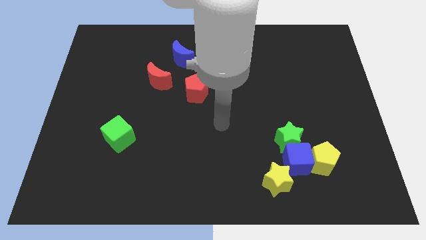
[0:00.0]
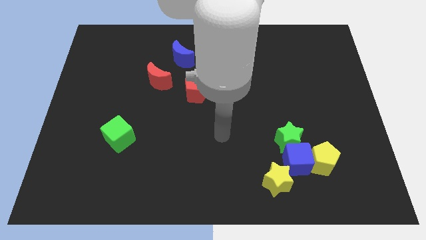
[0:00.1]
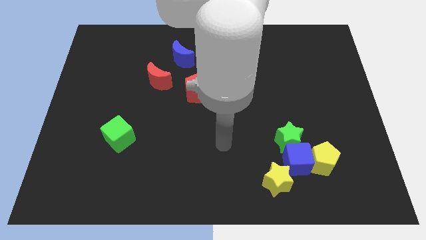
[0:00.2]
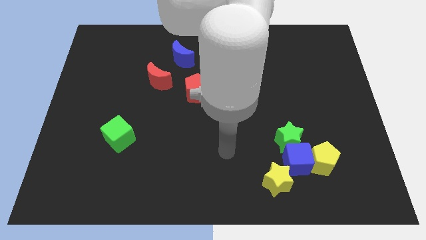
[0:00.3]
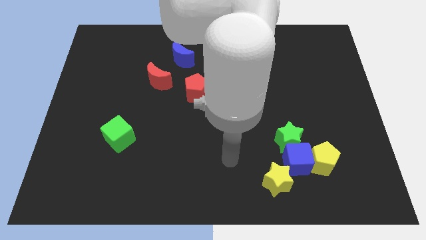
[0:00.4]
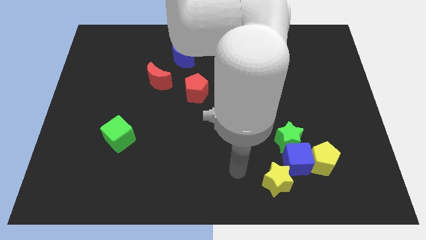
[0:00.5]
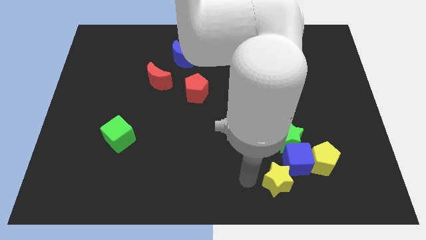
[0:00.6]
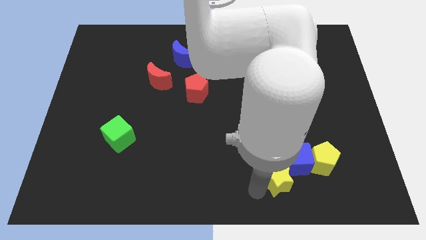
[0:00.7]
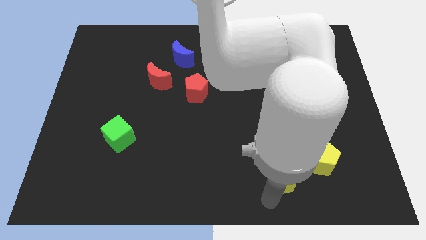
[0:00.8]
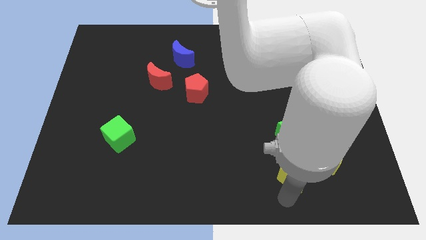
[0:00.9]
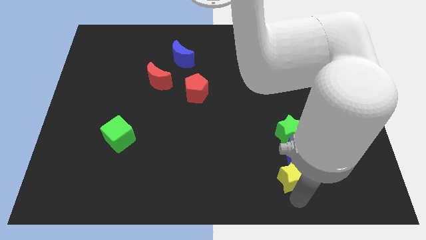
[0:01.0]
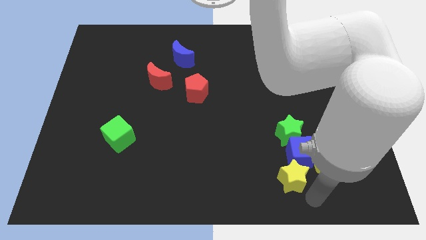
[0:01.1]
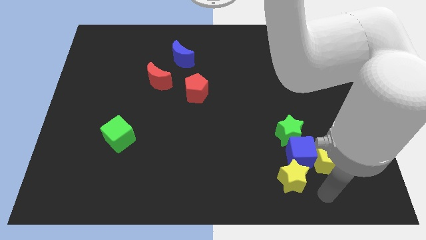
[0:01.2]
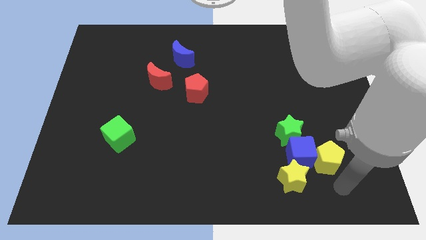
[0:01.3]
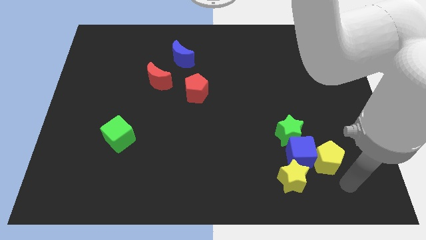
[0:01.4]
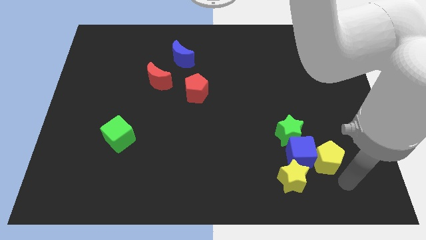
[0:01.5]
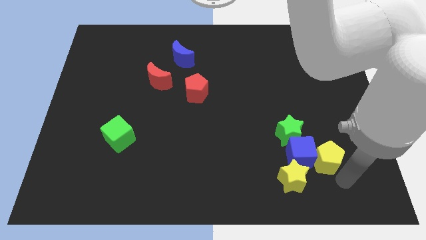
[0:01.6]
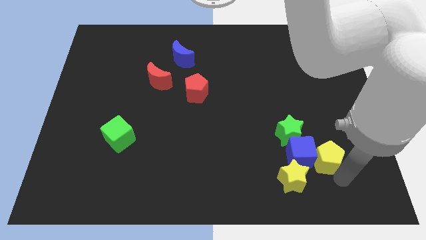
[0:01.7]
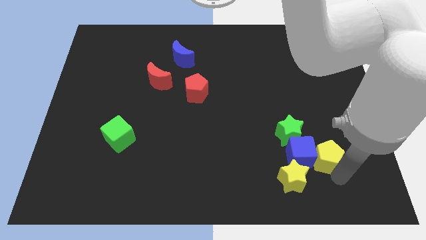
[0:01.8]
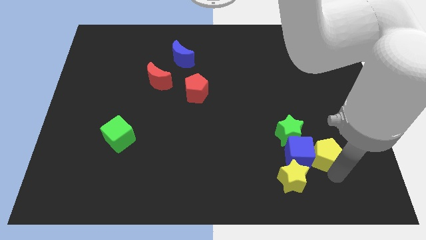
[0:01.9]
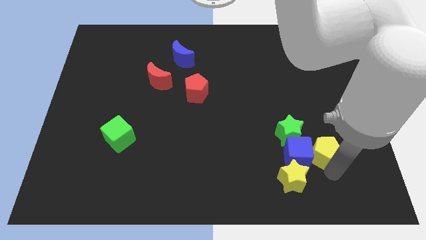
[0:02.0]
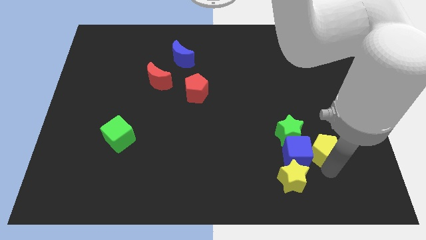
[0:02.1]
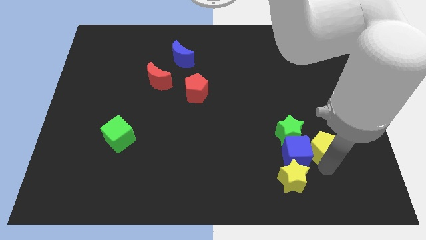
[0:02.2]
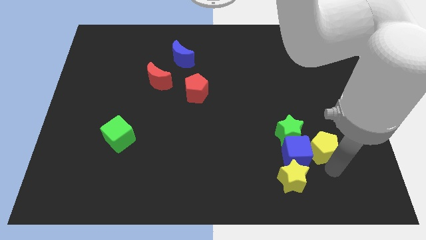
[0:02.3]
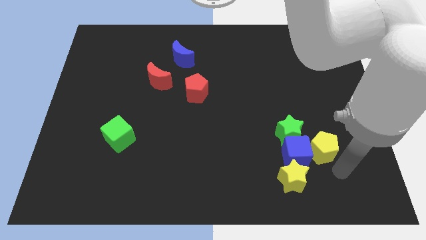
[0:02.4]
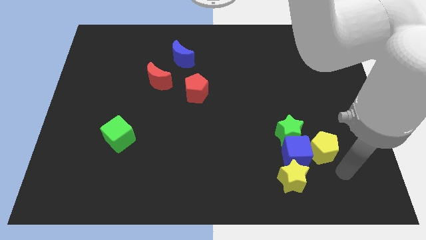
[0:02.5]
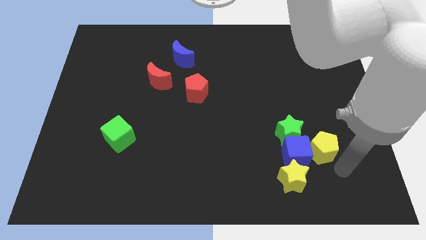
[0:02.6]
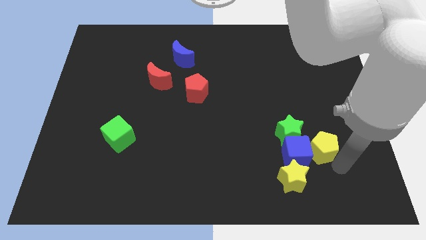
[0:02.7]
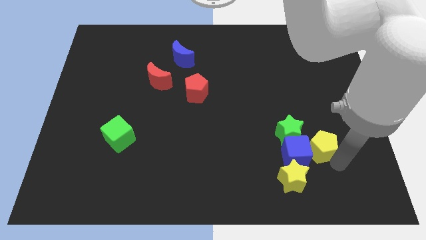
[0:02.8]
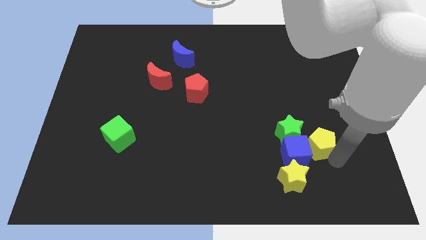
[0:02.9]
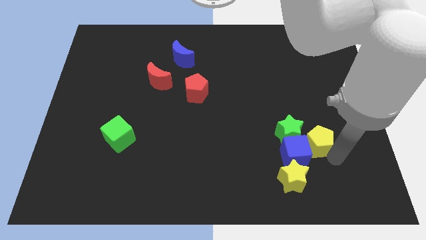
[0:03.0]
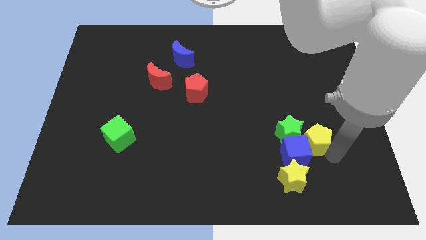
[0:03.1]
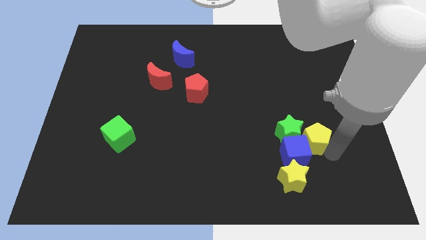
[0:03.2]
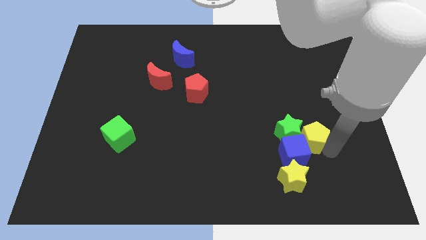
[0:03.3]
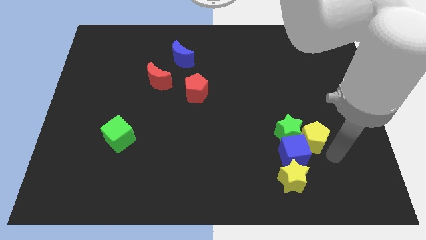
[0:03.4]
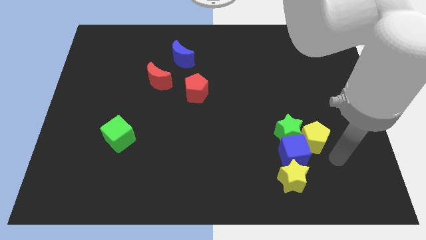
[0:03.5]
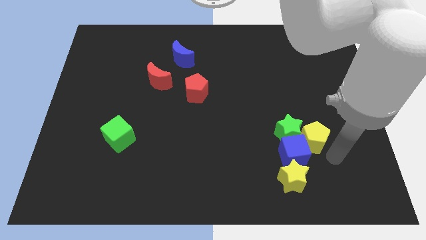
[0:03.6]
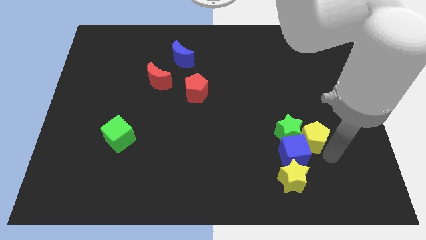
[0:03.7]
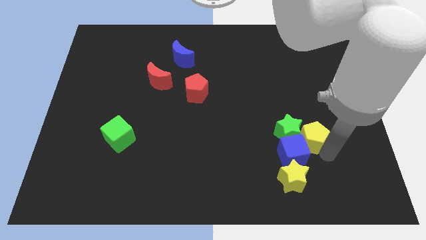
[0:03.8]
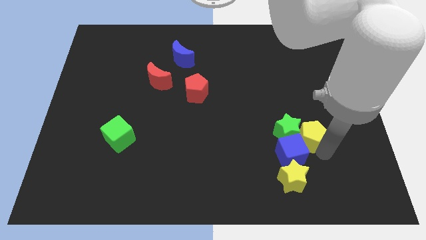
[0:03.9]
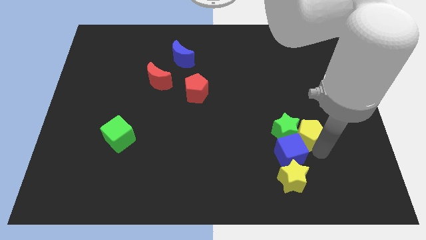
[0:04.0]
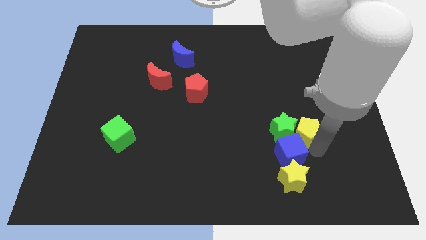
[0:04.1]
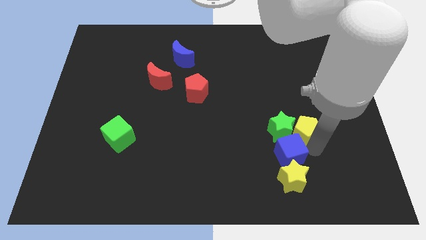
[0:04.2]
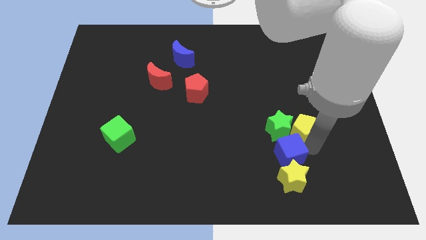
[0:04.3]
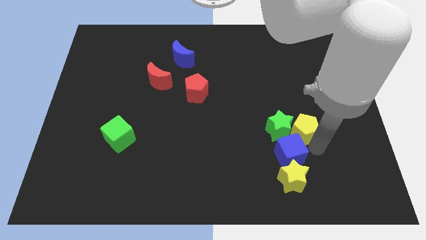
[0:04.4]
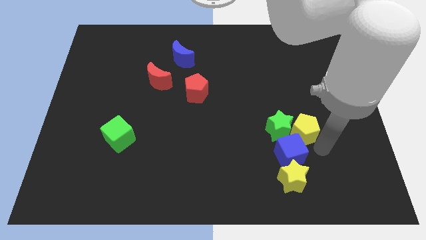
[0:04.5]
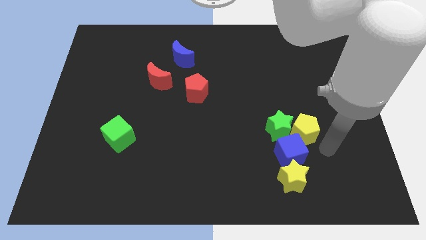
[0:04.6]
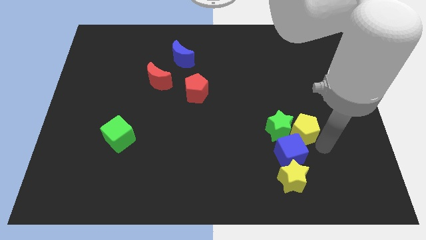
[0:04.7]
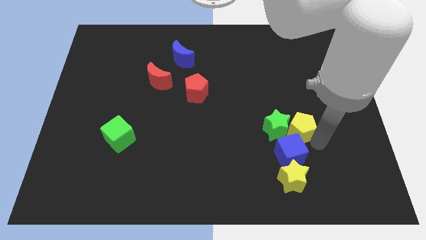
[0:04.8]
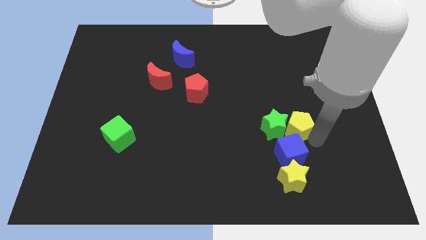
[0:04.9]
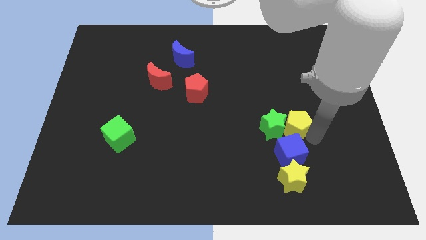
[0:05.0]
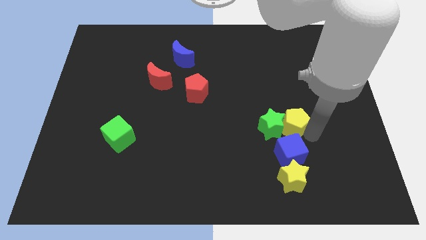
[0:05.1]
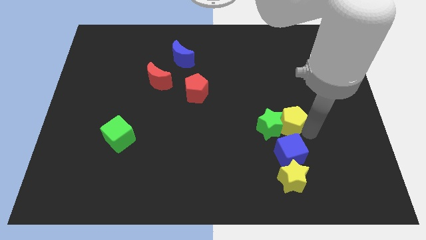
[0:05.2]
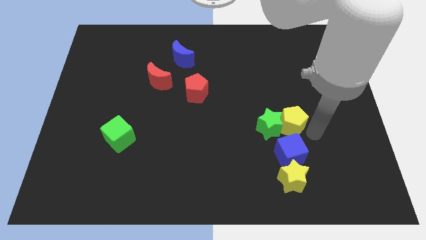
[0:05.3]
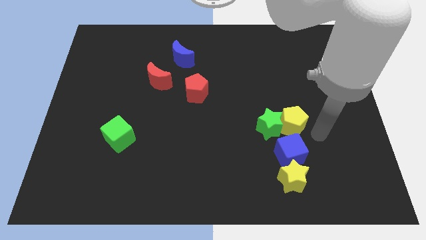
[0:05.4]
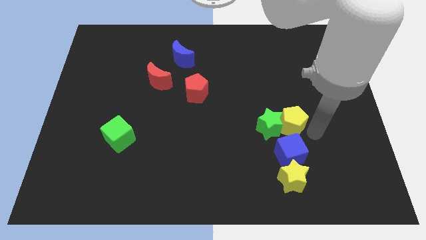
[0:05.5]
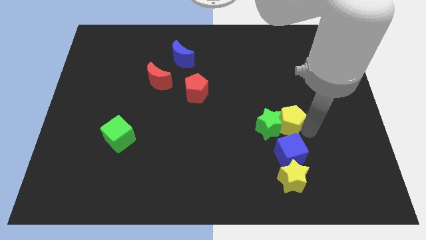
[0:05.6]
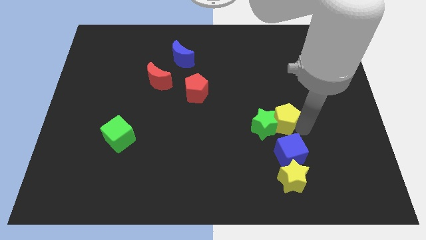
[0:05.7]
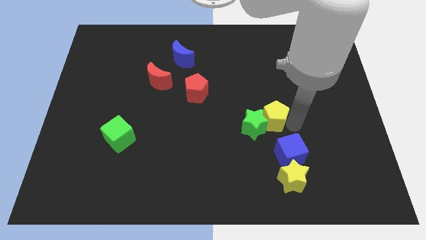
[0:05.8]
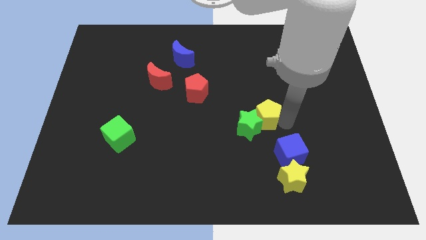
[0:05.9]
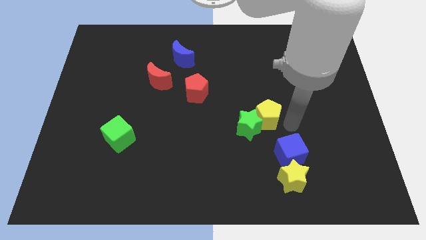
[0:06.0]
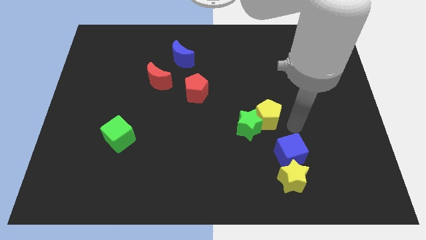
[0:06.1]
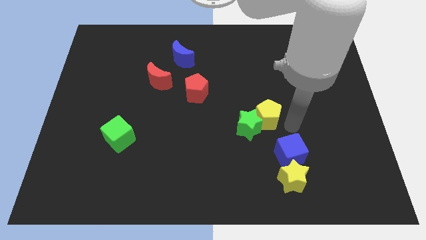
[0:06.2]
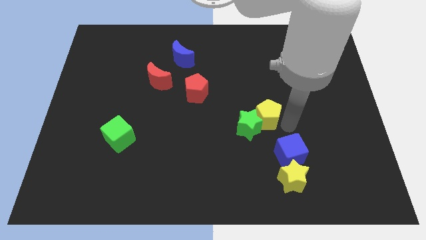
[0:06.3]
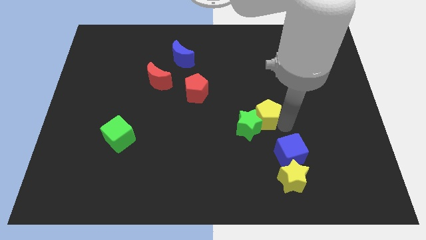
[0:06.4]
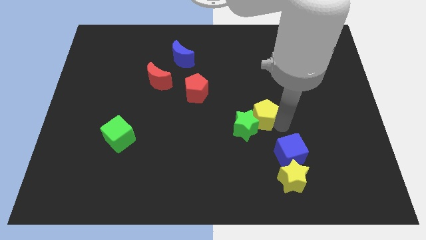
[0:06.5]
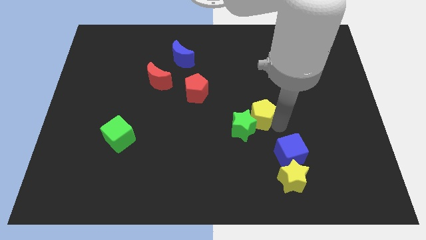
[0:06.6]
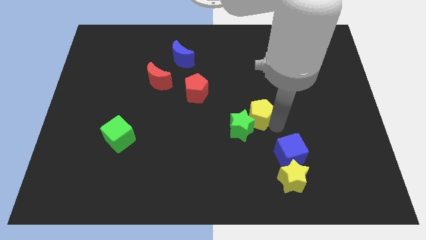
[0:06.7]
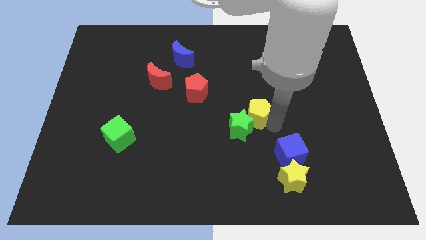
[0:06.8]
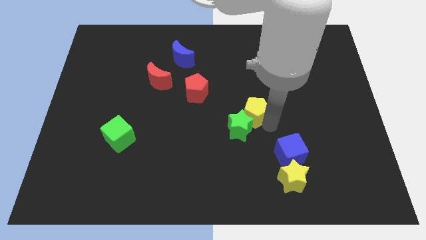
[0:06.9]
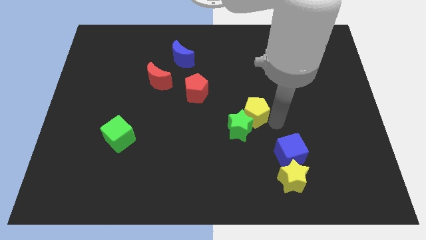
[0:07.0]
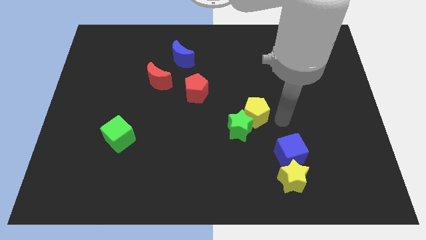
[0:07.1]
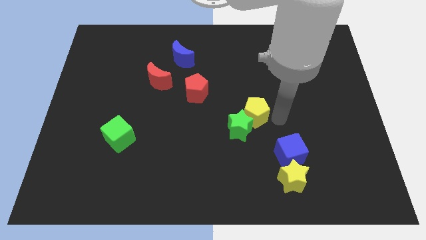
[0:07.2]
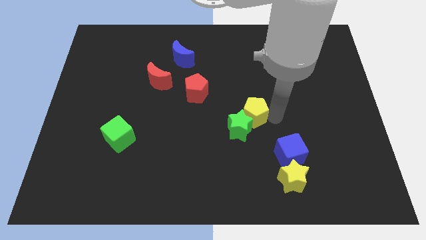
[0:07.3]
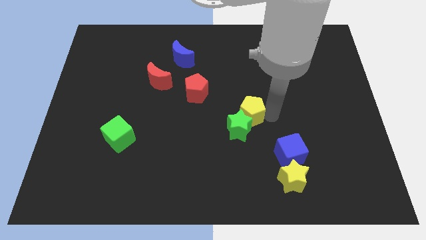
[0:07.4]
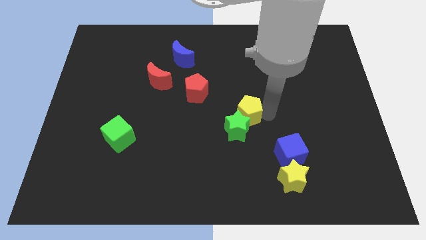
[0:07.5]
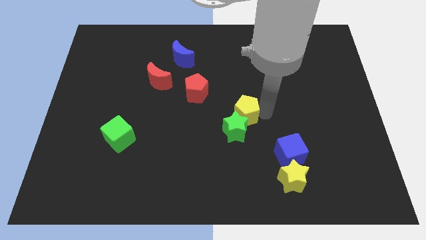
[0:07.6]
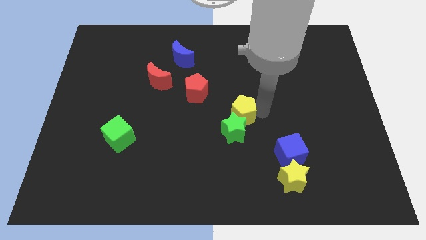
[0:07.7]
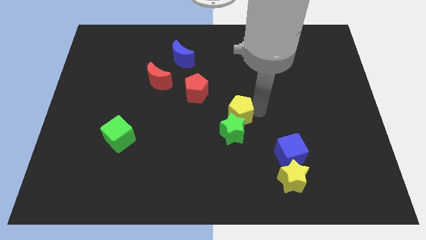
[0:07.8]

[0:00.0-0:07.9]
slide the yellow pentagon to the bottom right of the red pentagon
